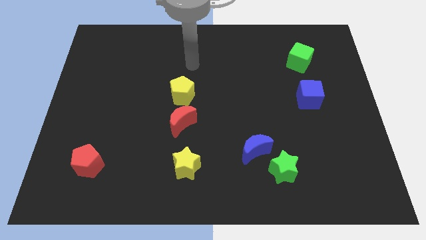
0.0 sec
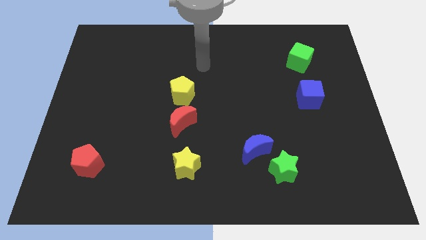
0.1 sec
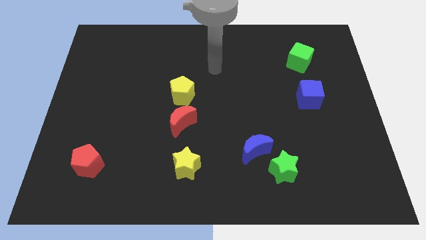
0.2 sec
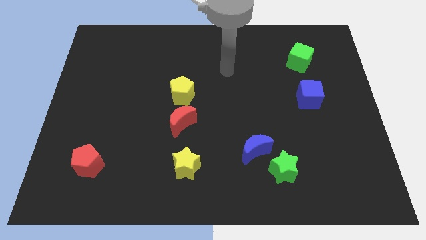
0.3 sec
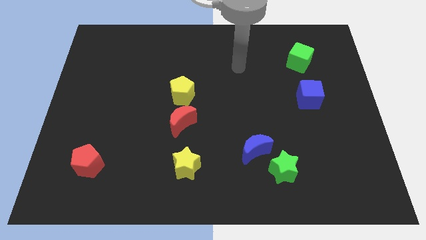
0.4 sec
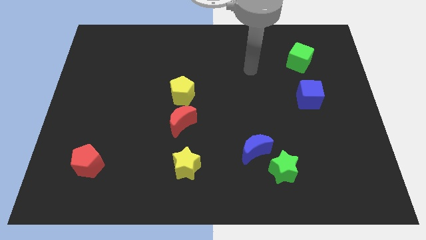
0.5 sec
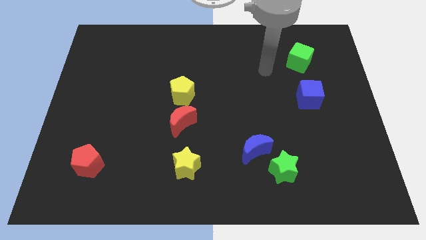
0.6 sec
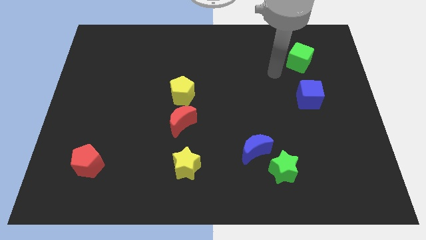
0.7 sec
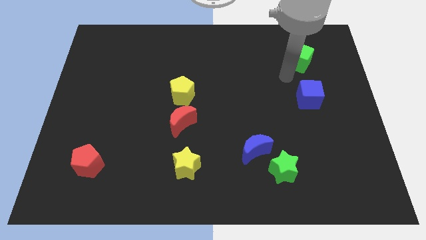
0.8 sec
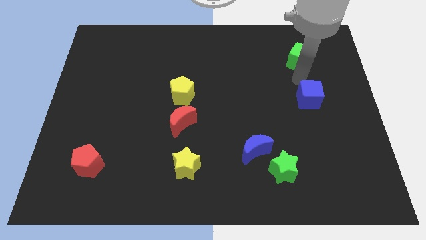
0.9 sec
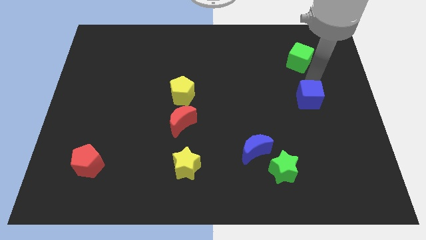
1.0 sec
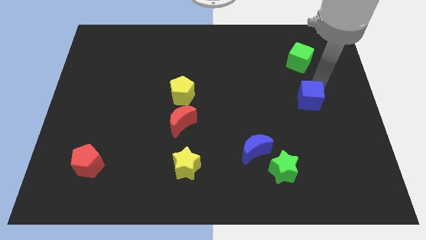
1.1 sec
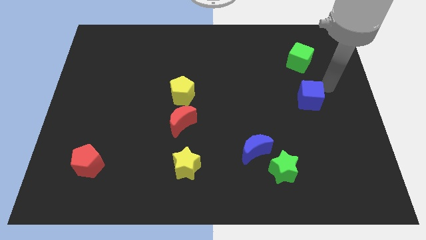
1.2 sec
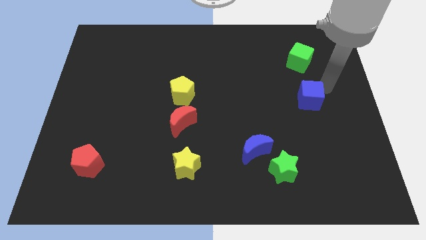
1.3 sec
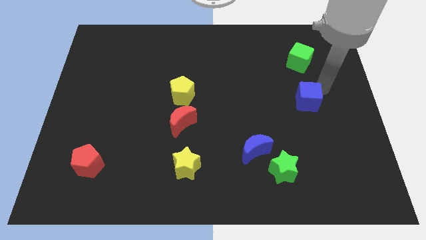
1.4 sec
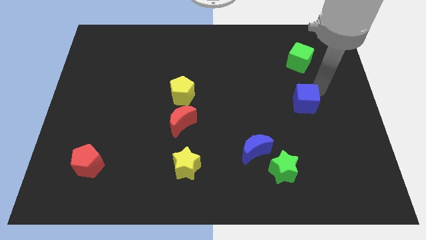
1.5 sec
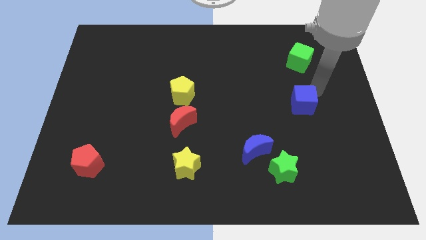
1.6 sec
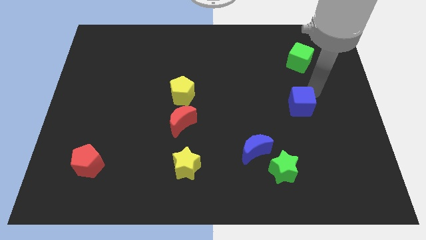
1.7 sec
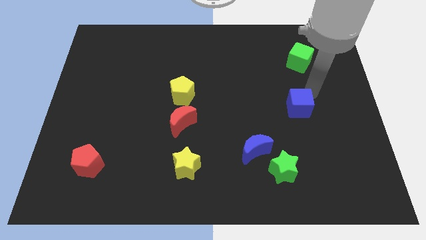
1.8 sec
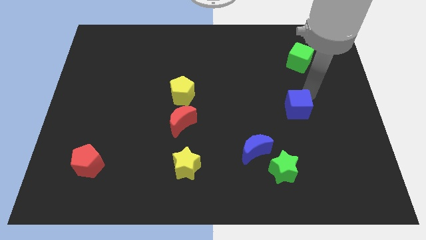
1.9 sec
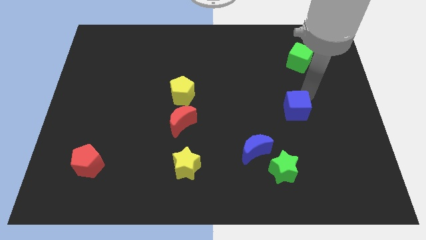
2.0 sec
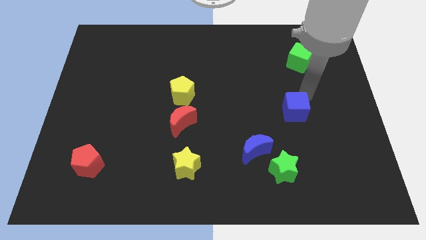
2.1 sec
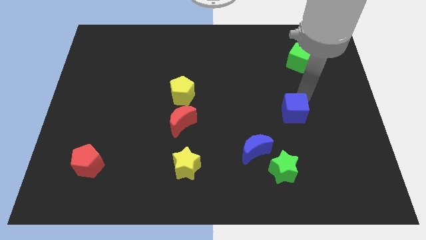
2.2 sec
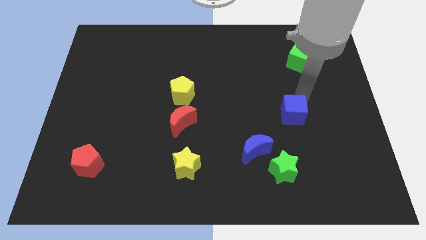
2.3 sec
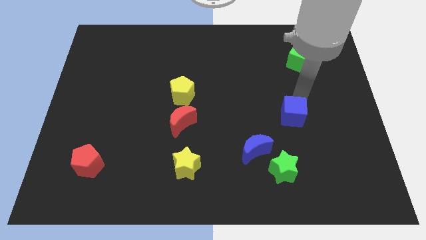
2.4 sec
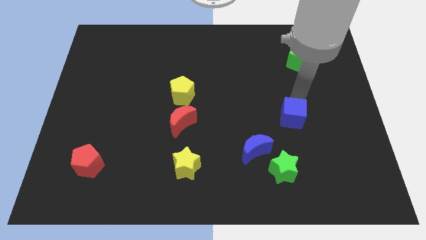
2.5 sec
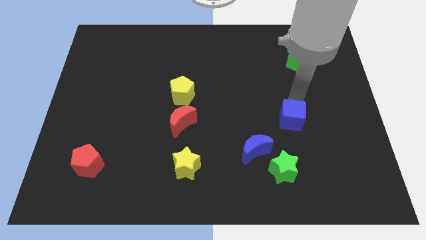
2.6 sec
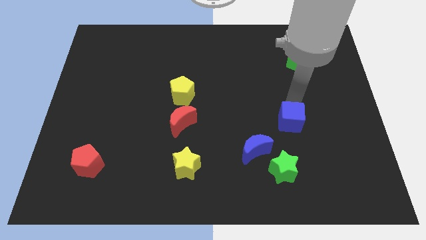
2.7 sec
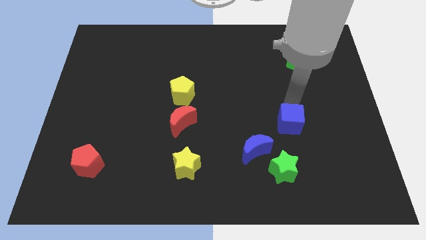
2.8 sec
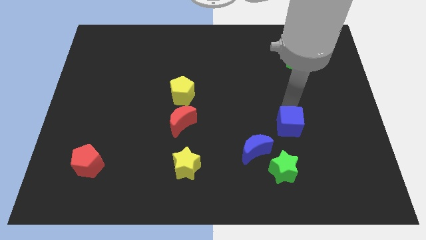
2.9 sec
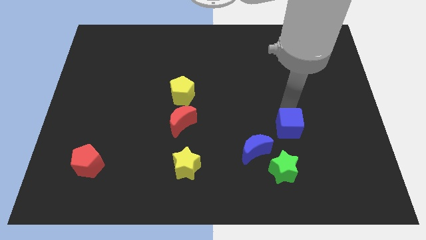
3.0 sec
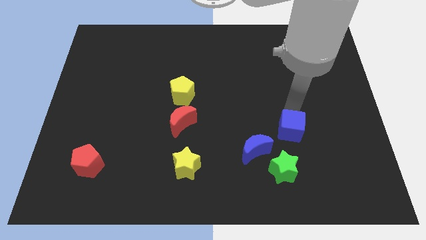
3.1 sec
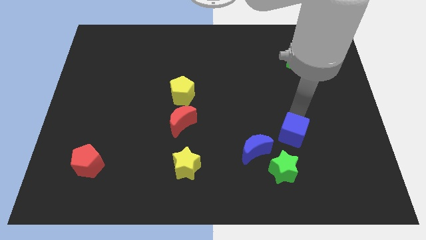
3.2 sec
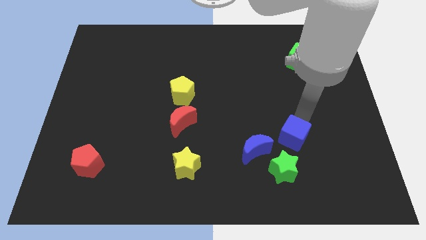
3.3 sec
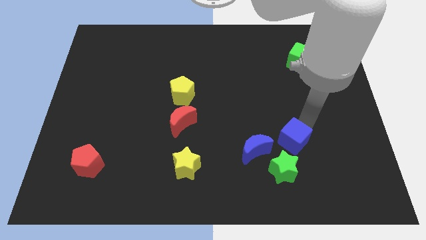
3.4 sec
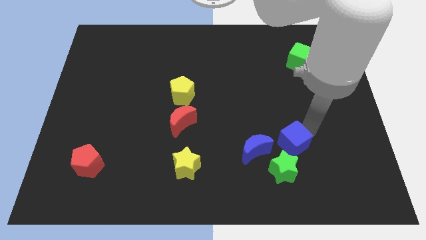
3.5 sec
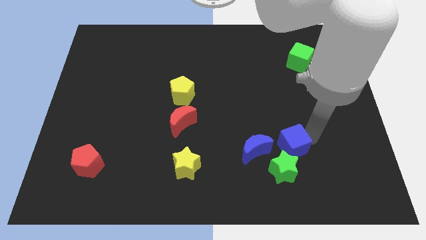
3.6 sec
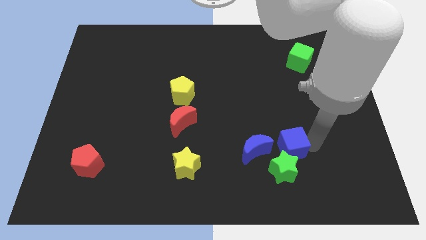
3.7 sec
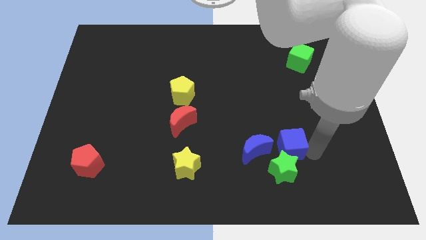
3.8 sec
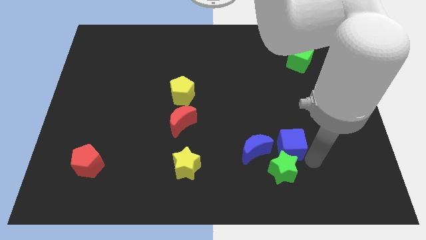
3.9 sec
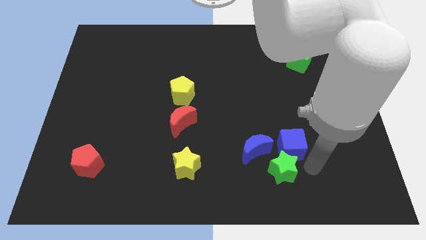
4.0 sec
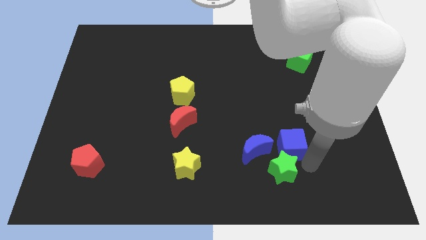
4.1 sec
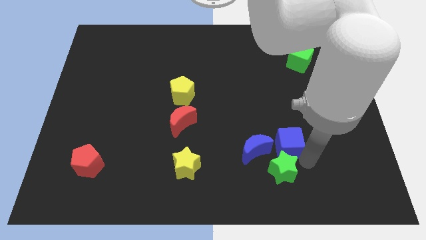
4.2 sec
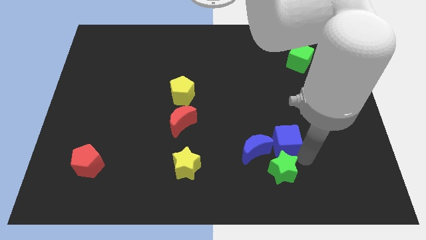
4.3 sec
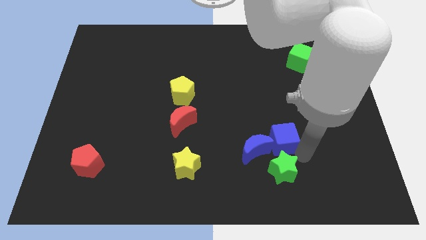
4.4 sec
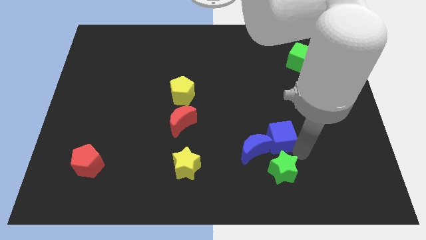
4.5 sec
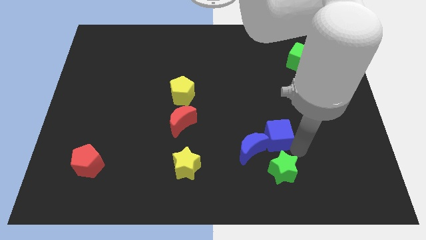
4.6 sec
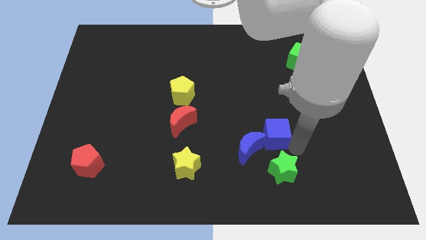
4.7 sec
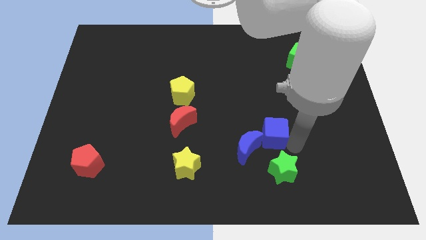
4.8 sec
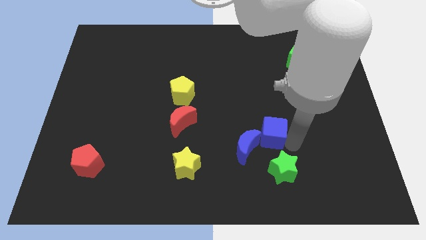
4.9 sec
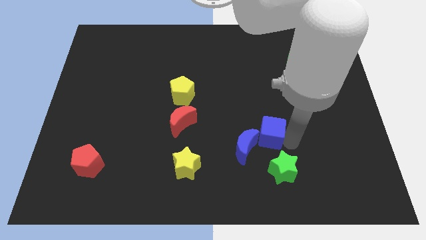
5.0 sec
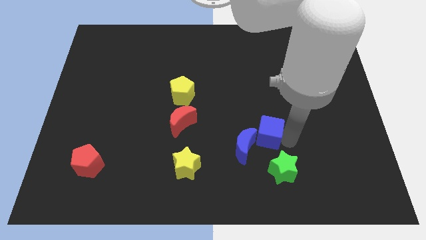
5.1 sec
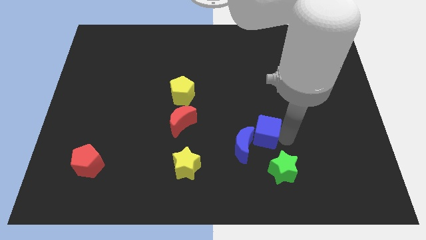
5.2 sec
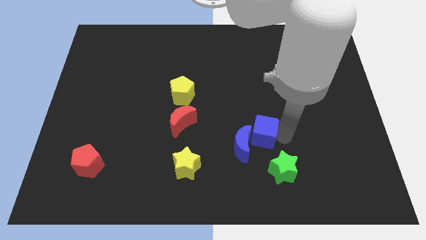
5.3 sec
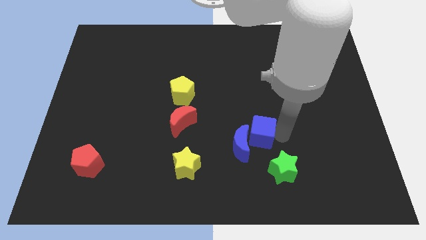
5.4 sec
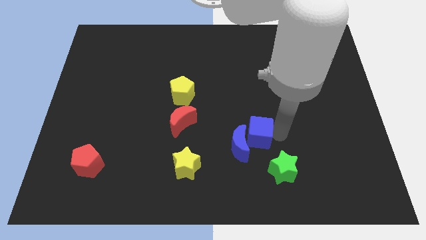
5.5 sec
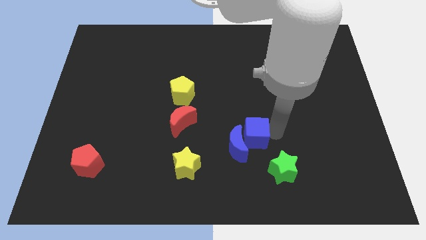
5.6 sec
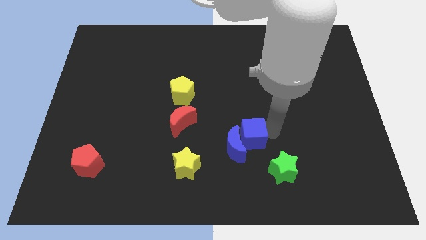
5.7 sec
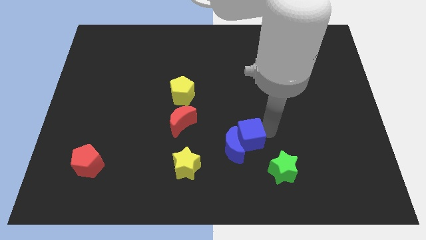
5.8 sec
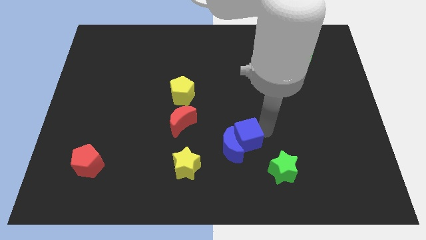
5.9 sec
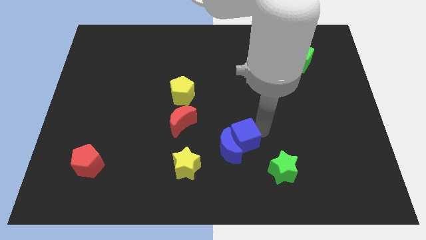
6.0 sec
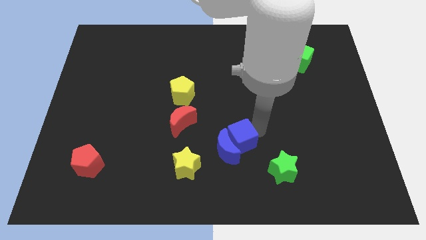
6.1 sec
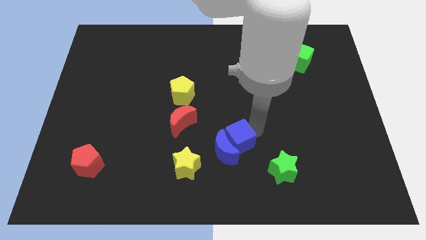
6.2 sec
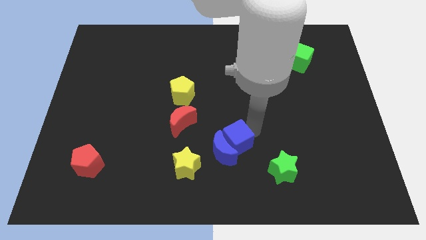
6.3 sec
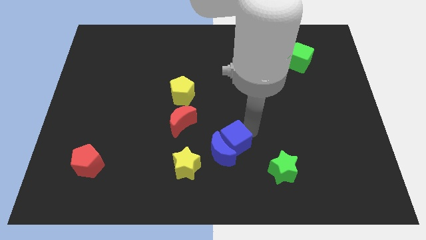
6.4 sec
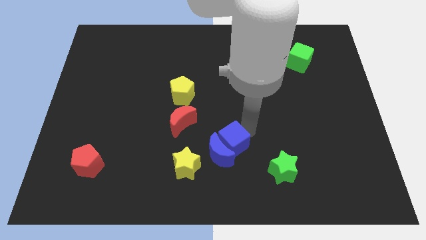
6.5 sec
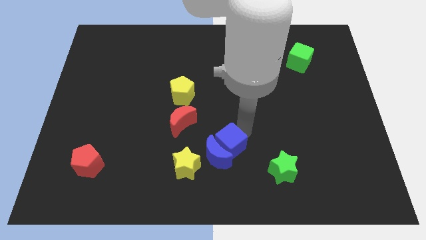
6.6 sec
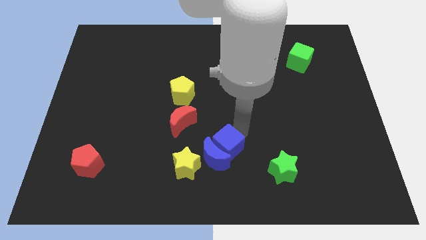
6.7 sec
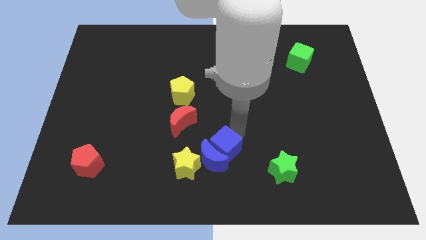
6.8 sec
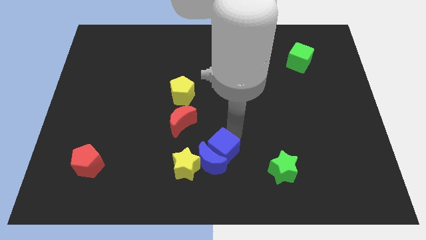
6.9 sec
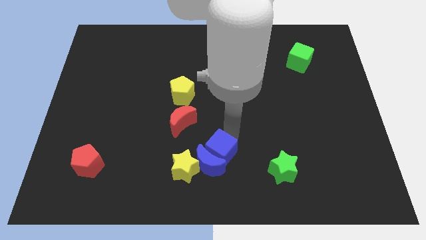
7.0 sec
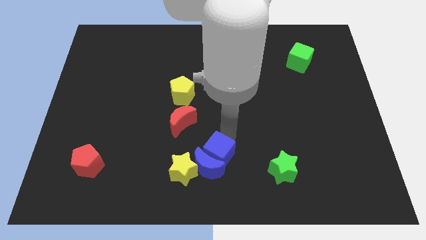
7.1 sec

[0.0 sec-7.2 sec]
push the blue cube to the bottom side
